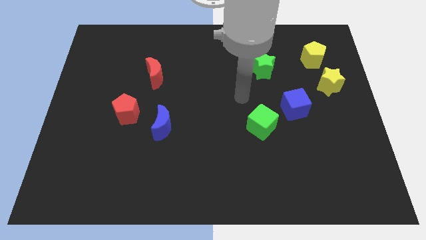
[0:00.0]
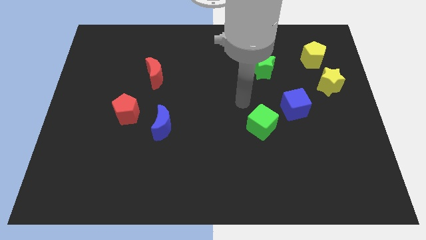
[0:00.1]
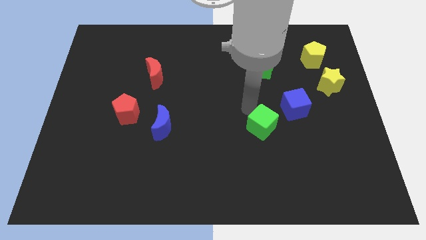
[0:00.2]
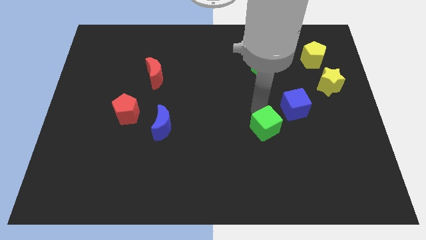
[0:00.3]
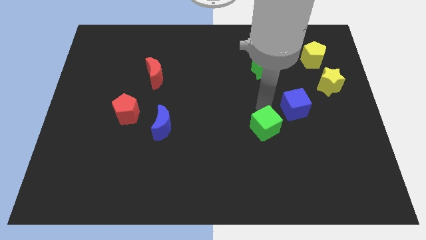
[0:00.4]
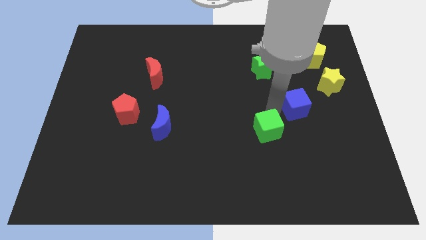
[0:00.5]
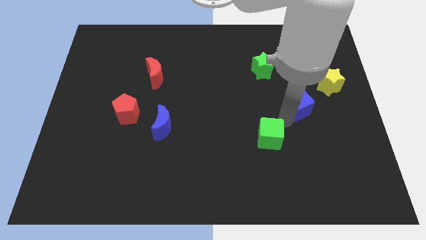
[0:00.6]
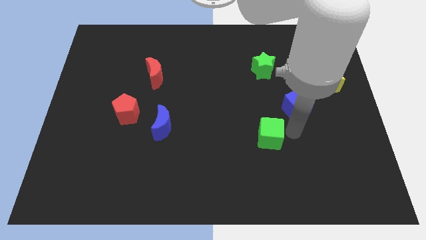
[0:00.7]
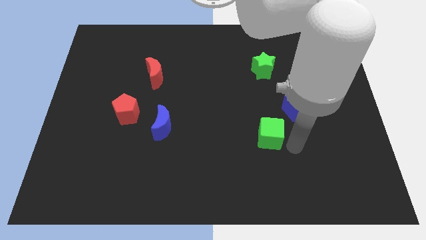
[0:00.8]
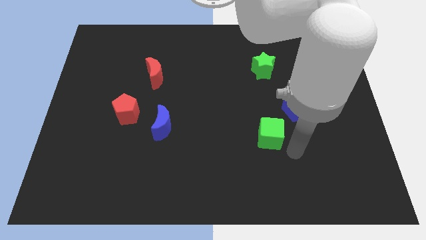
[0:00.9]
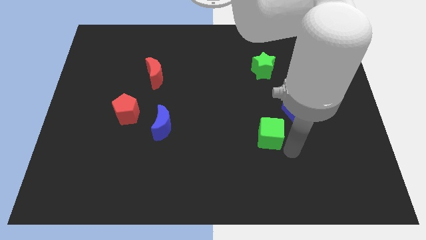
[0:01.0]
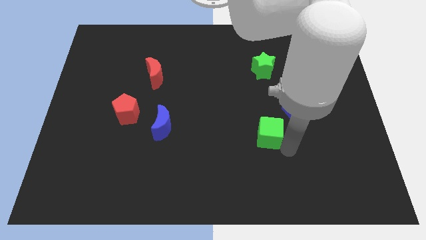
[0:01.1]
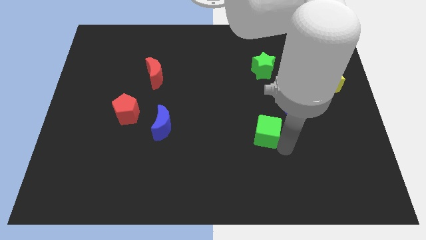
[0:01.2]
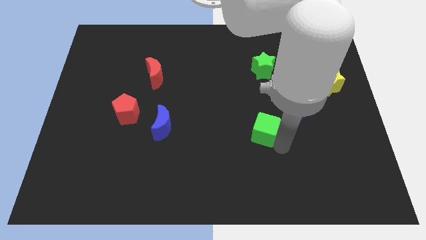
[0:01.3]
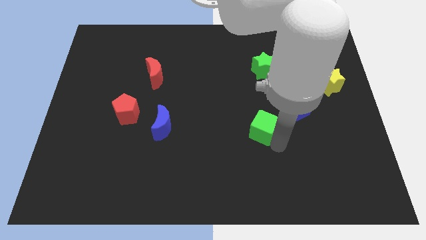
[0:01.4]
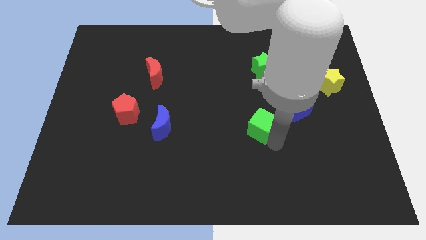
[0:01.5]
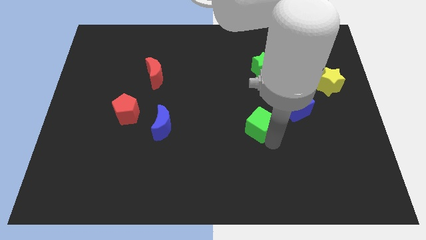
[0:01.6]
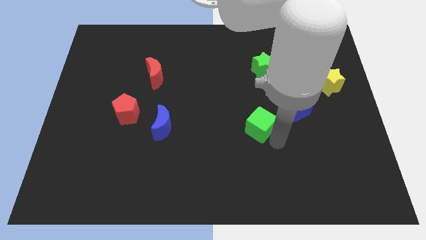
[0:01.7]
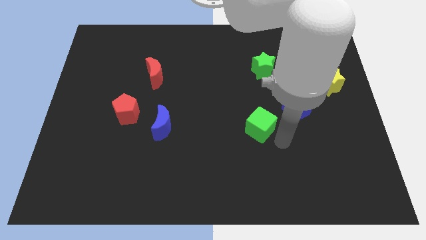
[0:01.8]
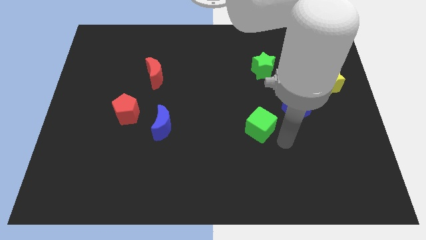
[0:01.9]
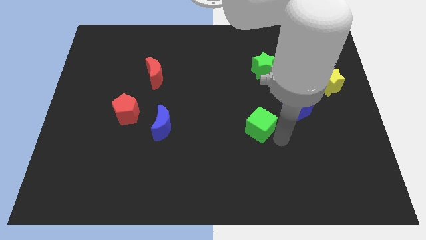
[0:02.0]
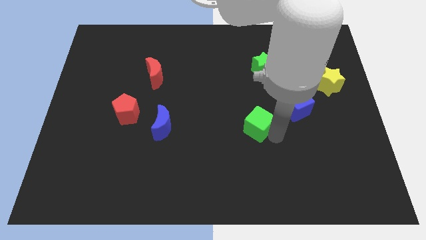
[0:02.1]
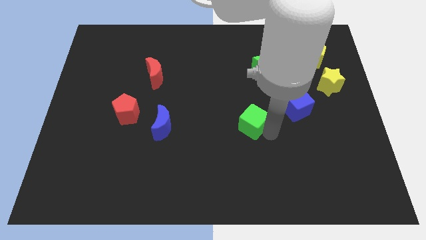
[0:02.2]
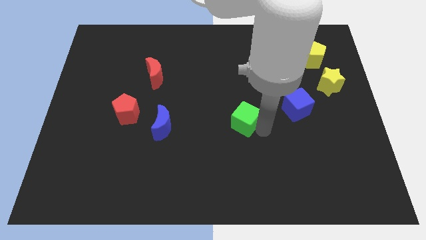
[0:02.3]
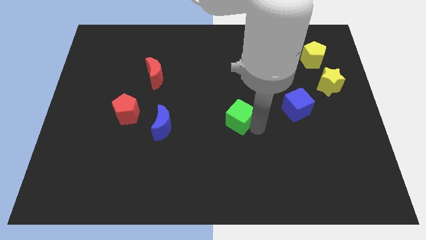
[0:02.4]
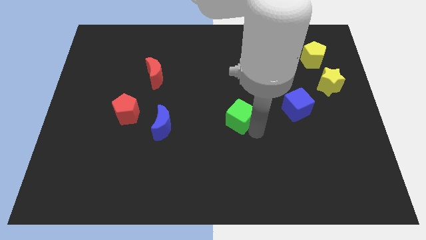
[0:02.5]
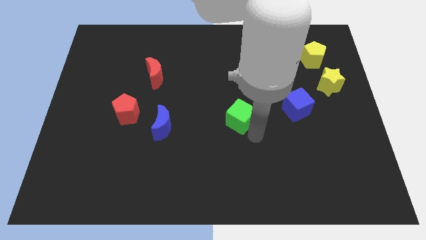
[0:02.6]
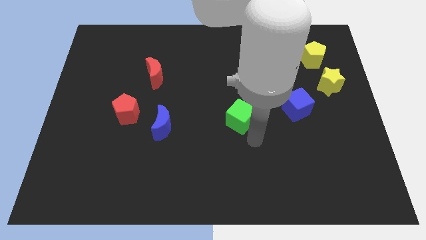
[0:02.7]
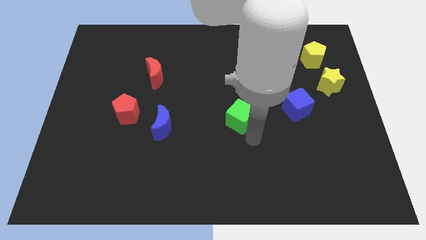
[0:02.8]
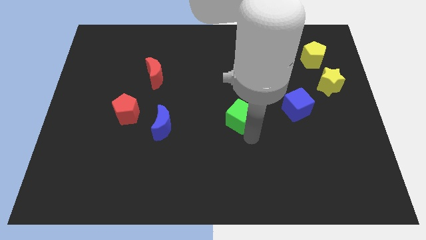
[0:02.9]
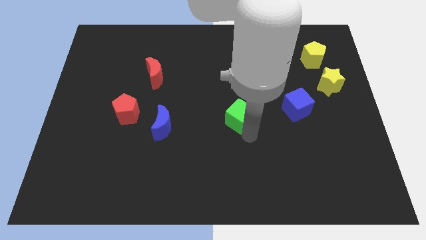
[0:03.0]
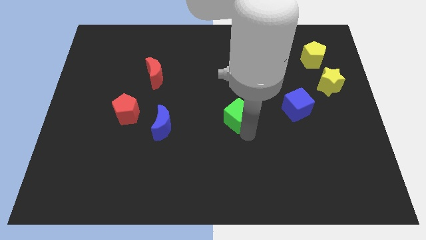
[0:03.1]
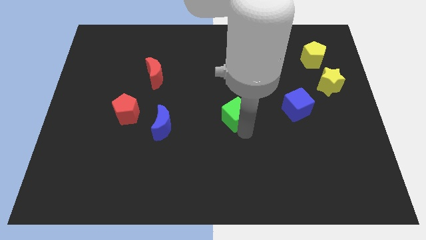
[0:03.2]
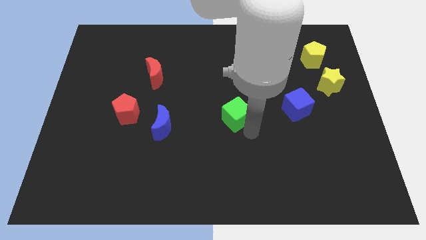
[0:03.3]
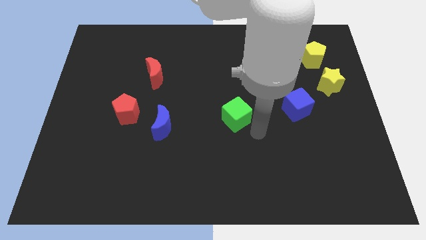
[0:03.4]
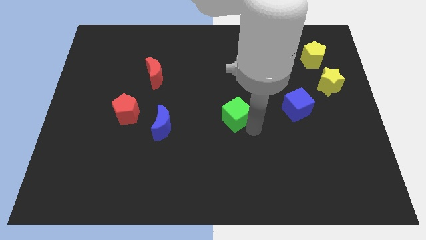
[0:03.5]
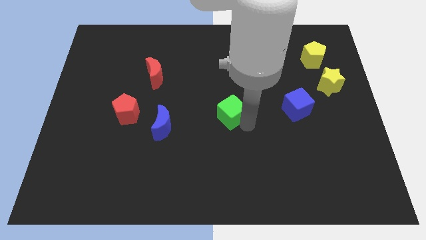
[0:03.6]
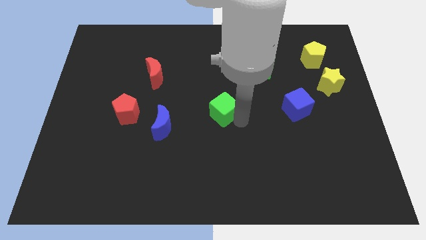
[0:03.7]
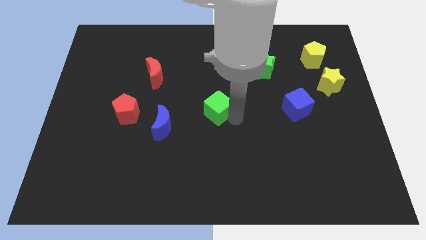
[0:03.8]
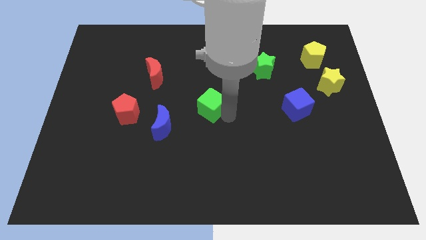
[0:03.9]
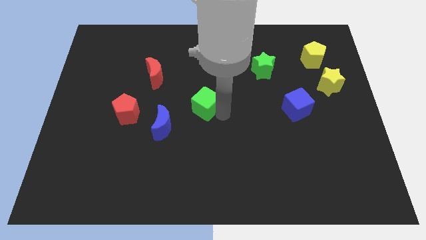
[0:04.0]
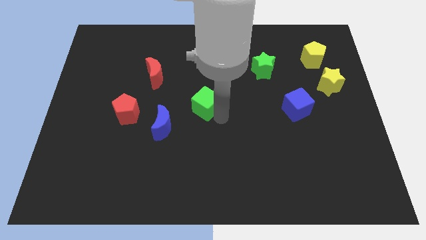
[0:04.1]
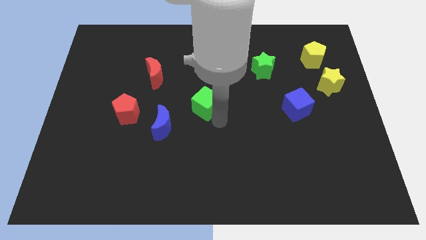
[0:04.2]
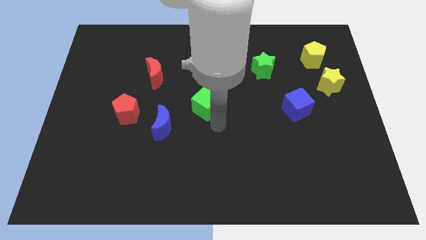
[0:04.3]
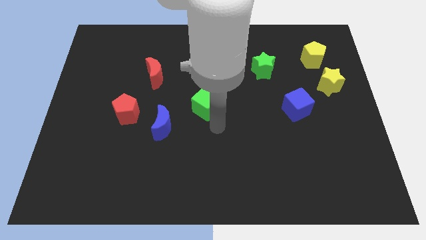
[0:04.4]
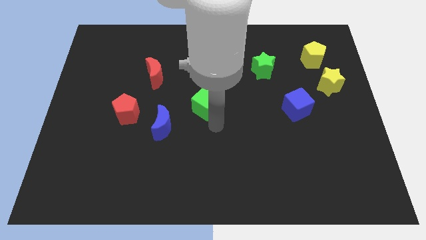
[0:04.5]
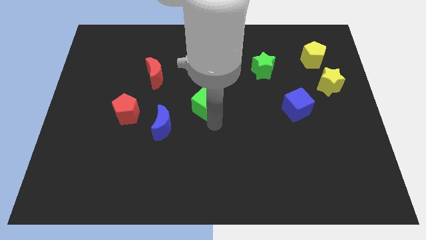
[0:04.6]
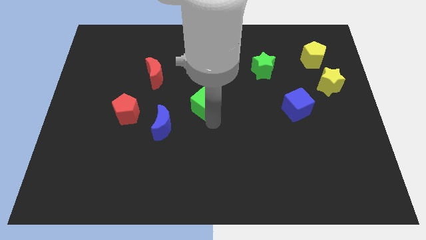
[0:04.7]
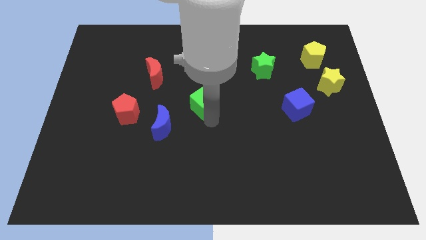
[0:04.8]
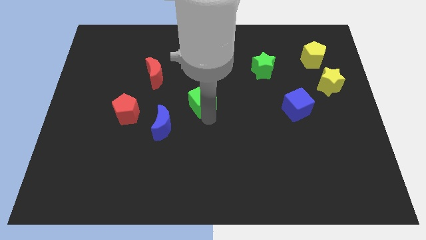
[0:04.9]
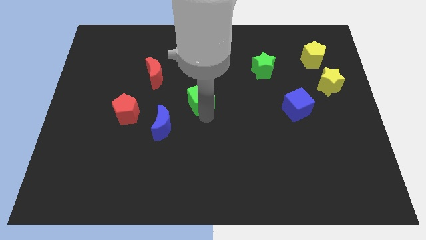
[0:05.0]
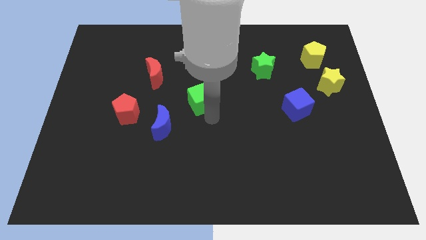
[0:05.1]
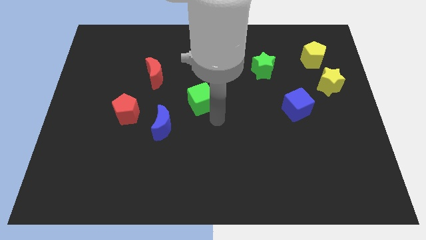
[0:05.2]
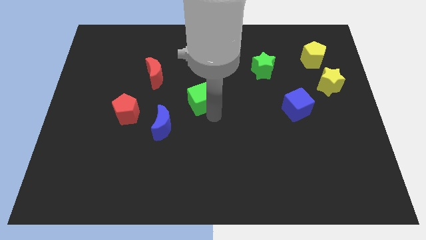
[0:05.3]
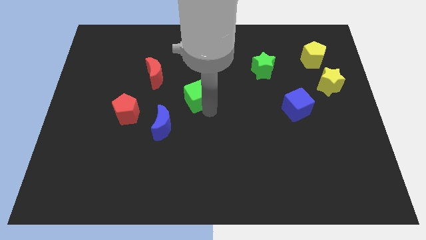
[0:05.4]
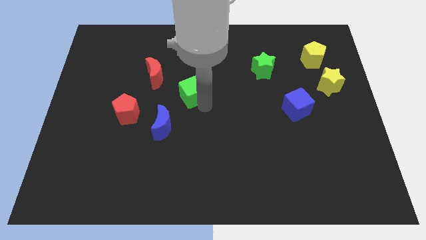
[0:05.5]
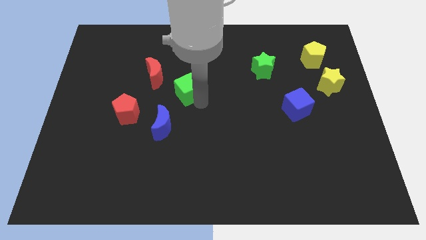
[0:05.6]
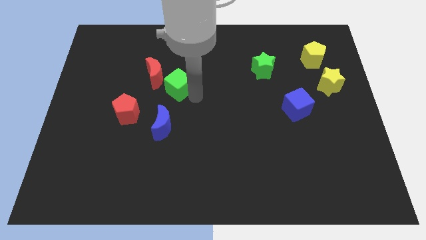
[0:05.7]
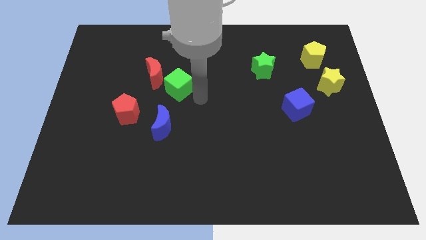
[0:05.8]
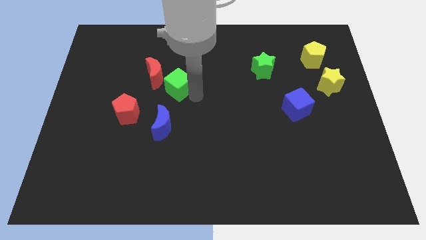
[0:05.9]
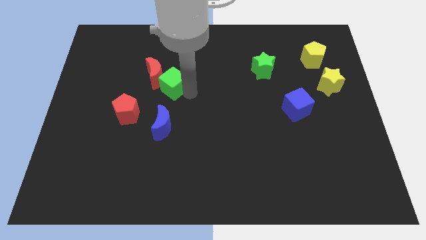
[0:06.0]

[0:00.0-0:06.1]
push the green cube next to the red moon

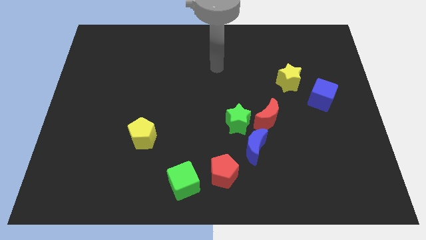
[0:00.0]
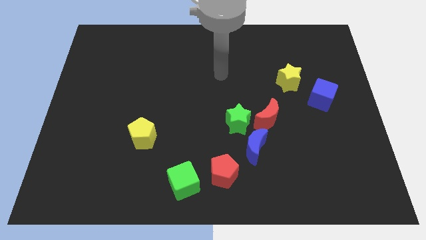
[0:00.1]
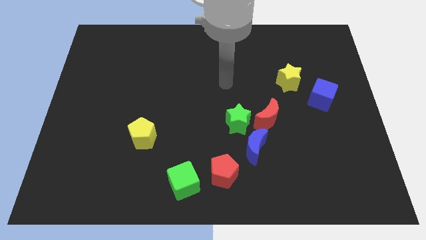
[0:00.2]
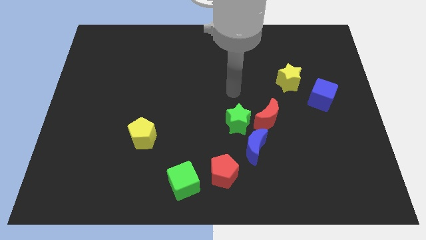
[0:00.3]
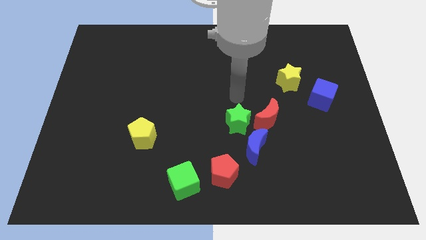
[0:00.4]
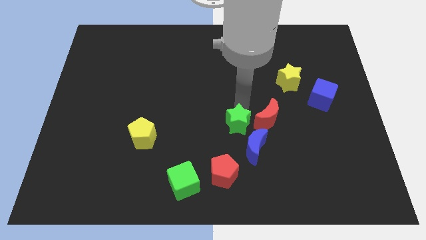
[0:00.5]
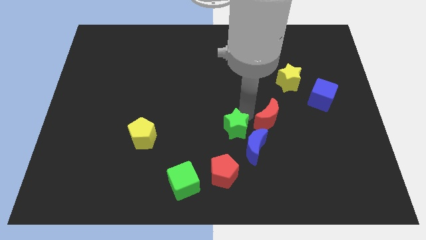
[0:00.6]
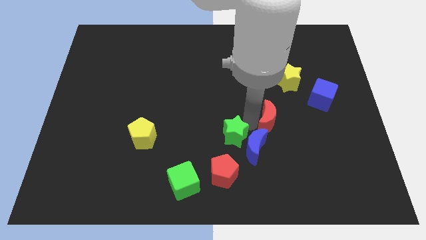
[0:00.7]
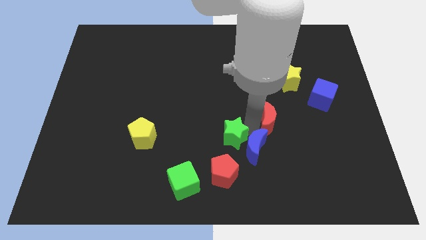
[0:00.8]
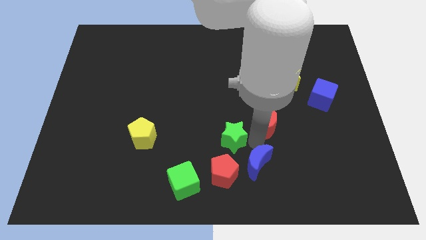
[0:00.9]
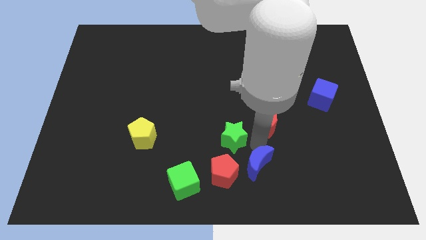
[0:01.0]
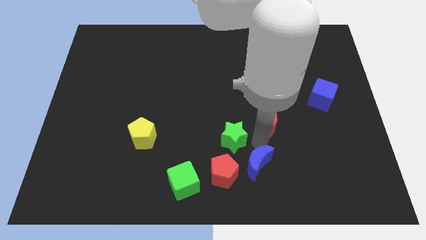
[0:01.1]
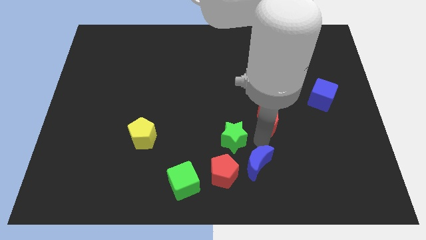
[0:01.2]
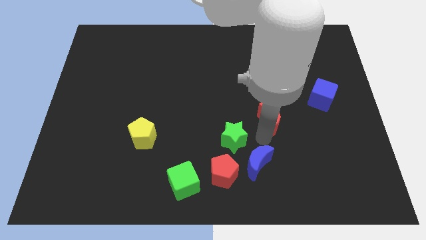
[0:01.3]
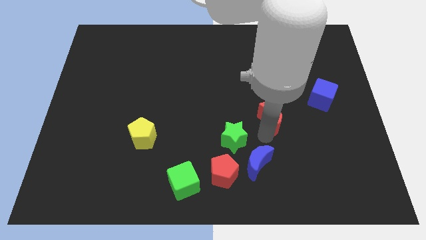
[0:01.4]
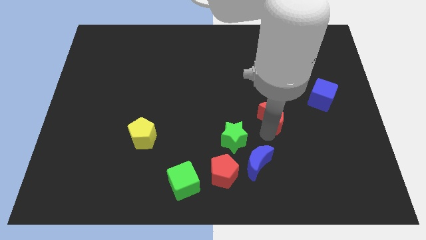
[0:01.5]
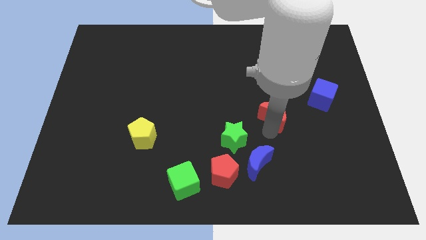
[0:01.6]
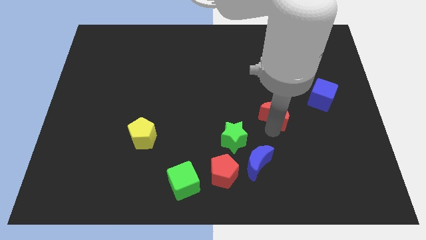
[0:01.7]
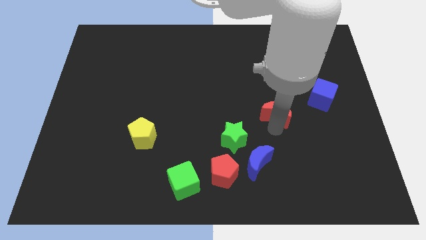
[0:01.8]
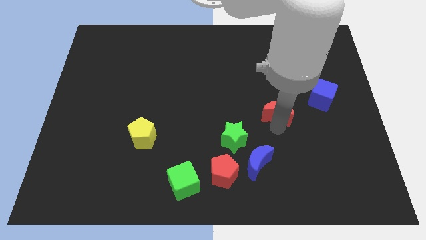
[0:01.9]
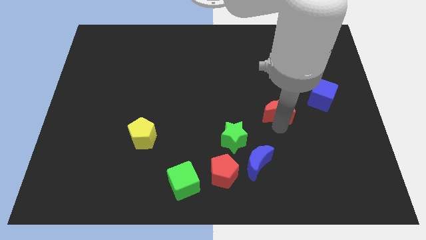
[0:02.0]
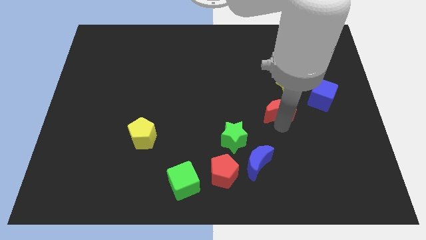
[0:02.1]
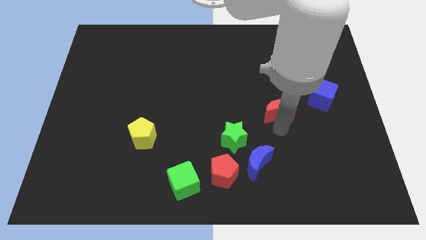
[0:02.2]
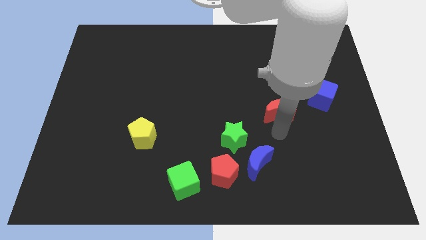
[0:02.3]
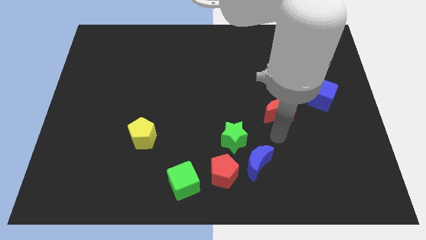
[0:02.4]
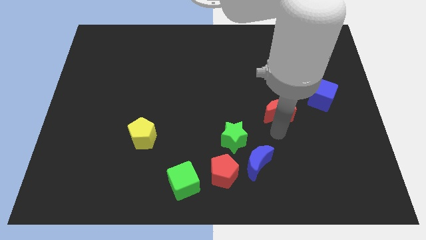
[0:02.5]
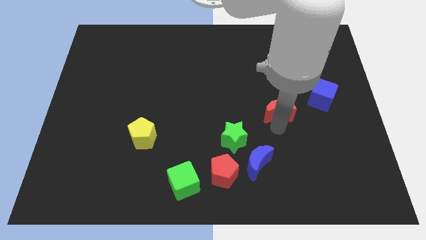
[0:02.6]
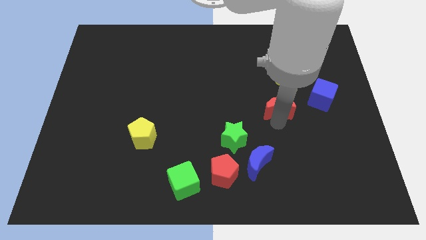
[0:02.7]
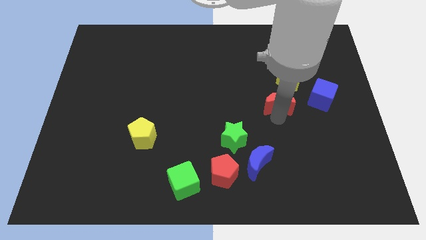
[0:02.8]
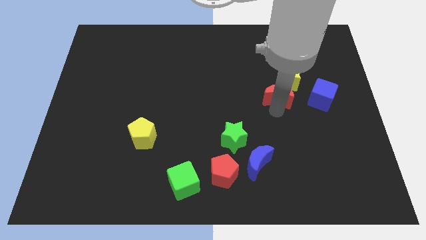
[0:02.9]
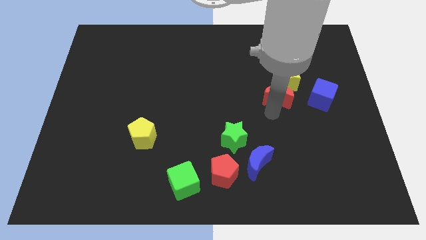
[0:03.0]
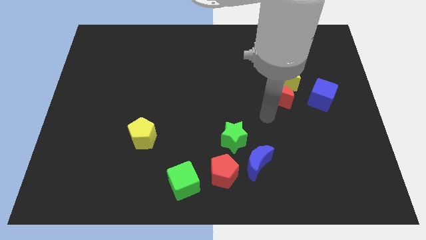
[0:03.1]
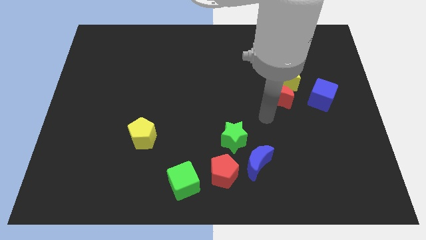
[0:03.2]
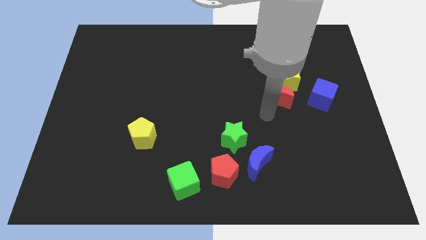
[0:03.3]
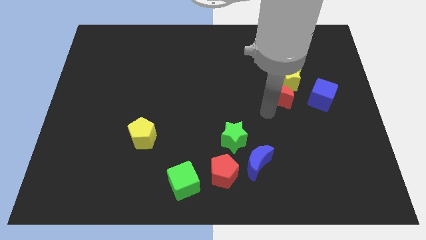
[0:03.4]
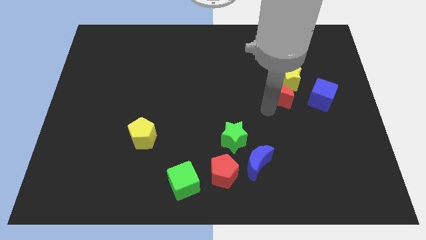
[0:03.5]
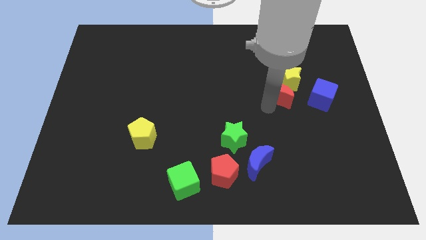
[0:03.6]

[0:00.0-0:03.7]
slide the red moon next to the yellow star
